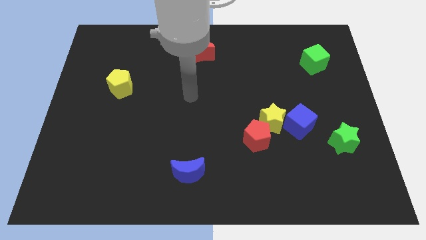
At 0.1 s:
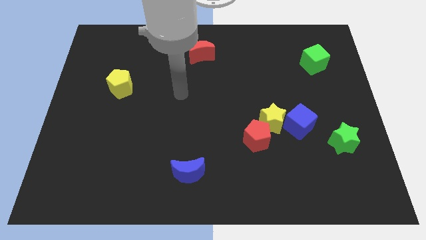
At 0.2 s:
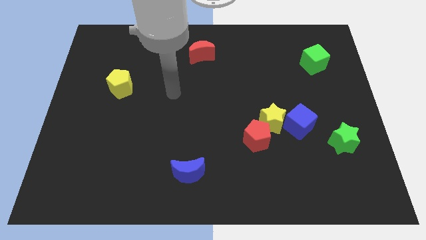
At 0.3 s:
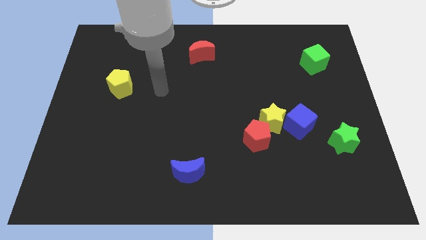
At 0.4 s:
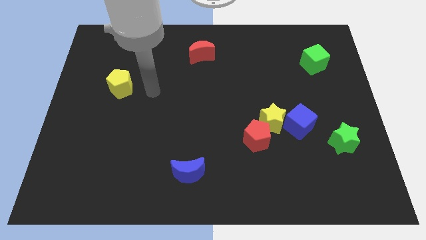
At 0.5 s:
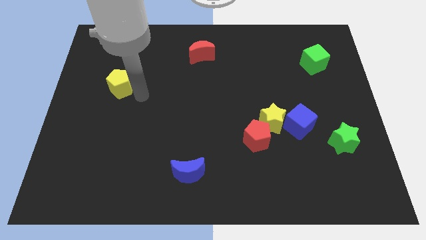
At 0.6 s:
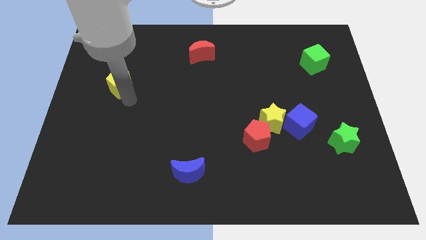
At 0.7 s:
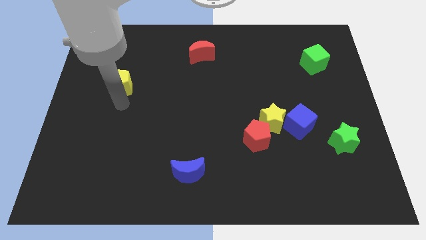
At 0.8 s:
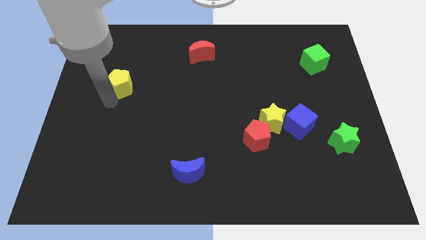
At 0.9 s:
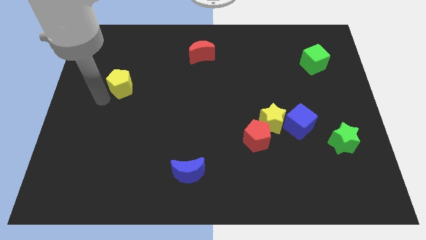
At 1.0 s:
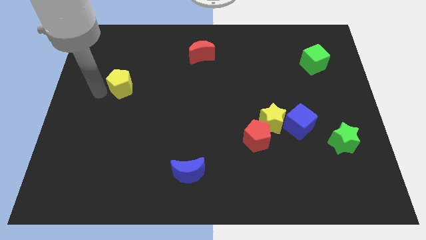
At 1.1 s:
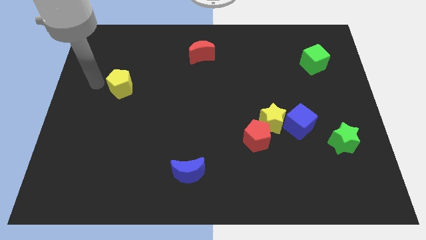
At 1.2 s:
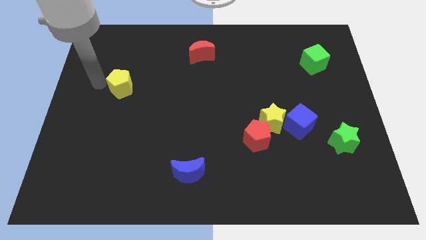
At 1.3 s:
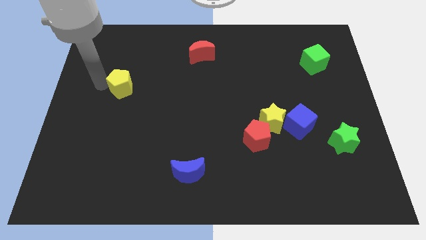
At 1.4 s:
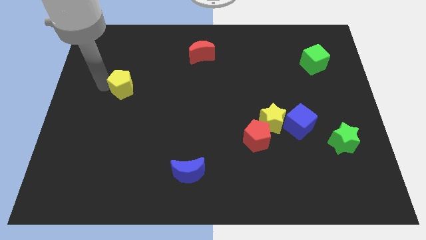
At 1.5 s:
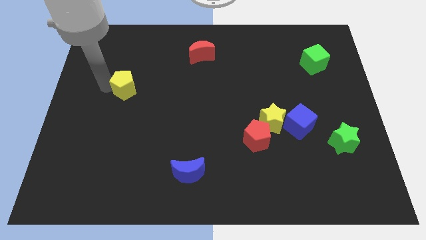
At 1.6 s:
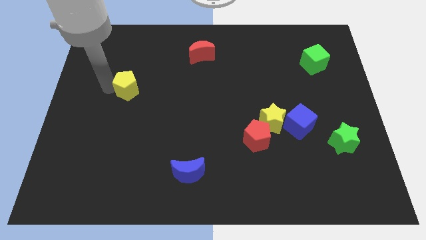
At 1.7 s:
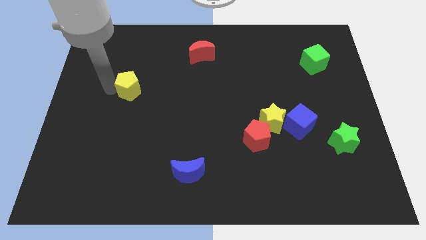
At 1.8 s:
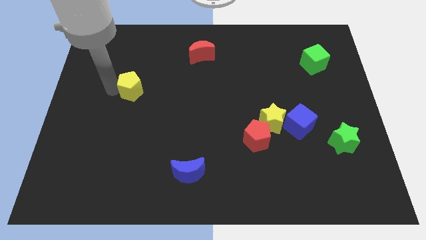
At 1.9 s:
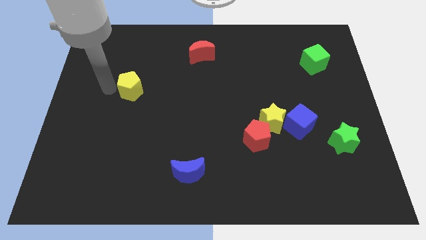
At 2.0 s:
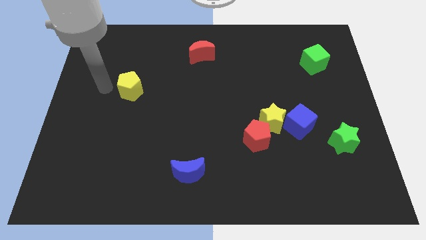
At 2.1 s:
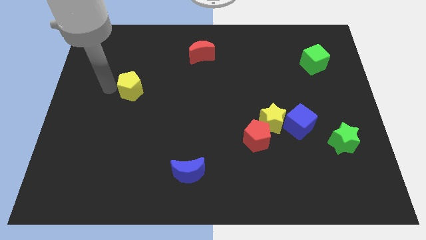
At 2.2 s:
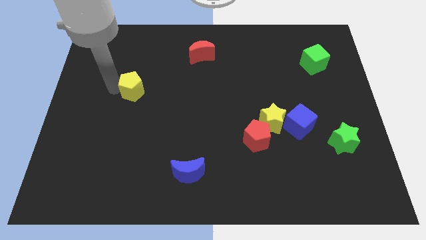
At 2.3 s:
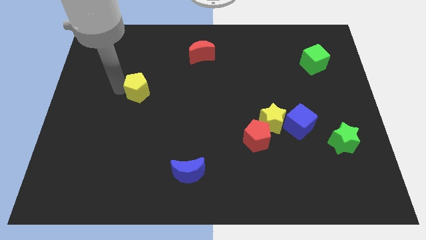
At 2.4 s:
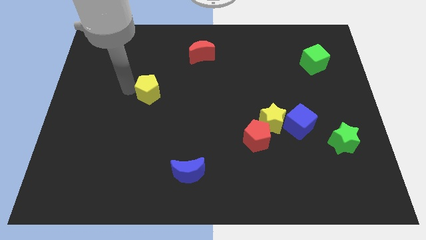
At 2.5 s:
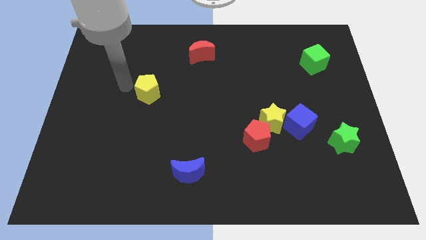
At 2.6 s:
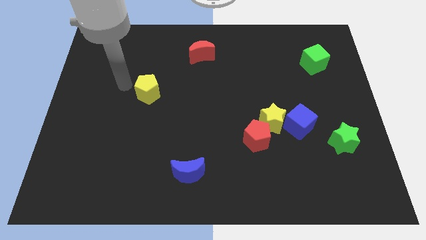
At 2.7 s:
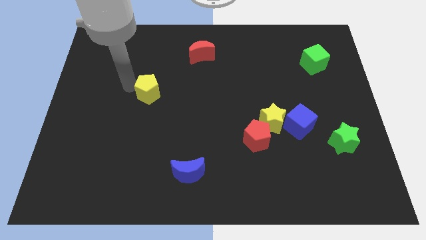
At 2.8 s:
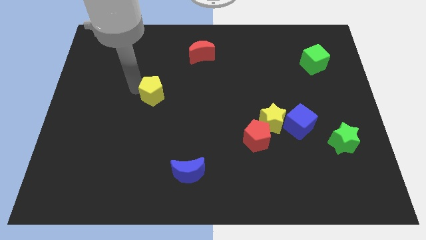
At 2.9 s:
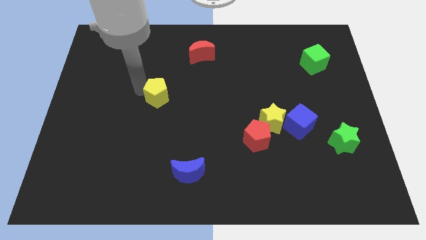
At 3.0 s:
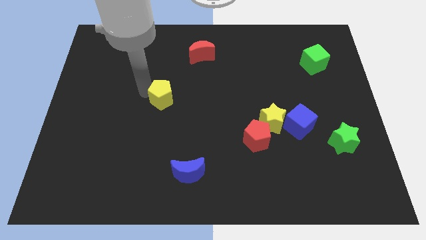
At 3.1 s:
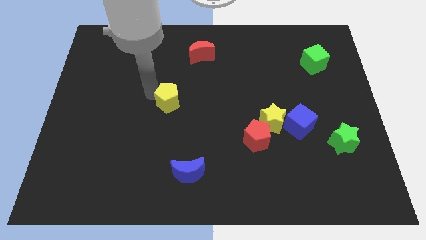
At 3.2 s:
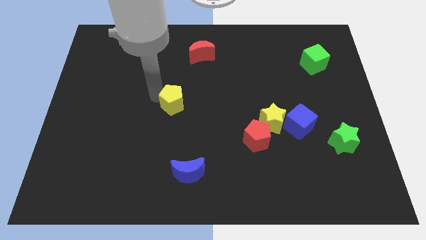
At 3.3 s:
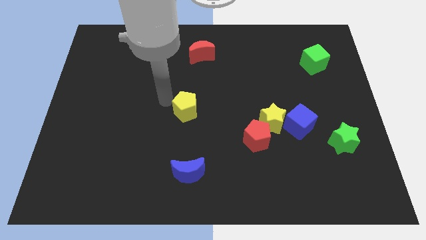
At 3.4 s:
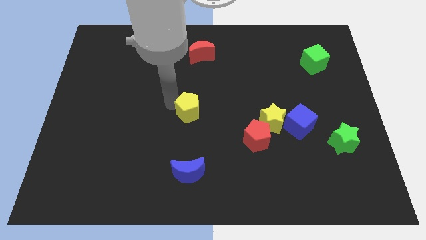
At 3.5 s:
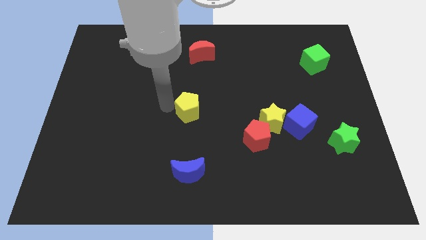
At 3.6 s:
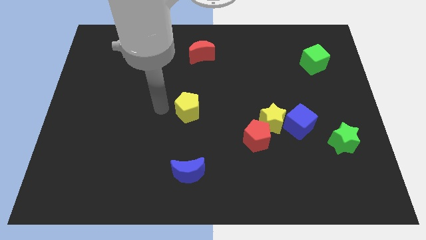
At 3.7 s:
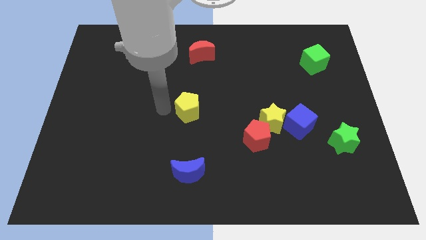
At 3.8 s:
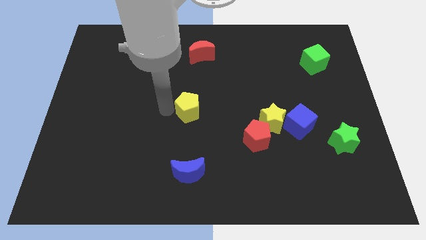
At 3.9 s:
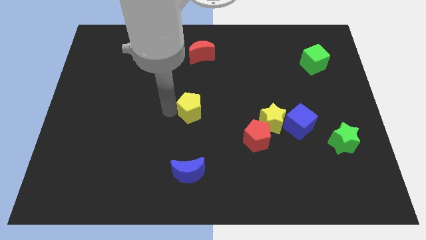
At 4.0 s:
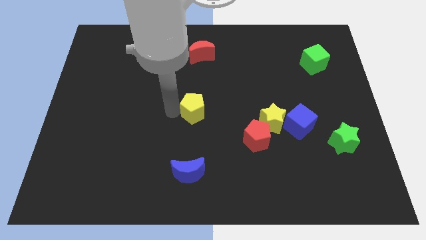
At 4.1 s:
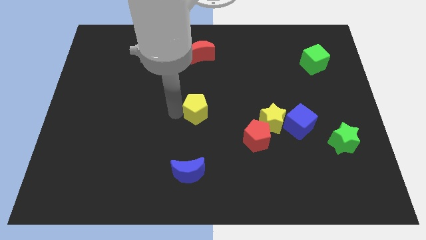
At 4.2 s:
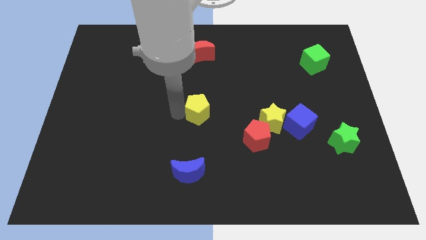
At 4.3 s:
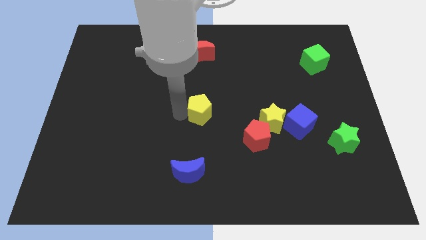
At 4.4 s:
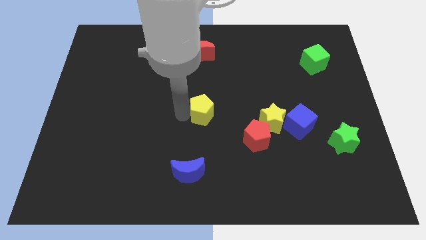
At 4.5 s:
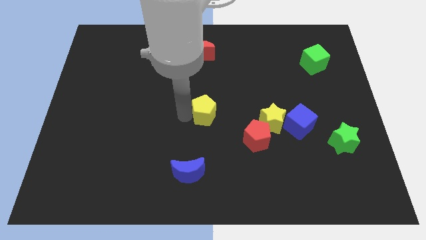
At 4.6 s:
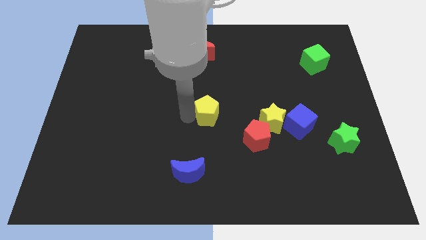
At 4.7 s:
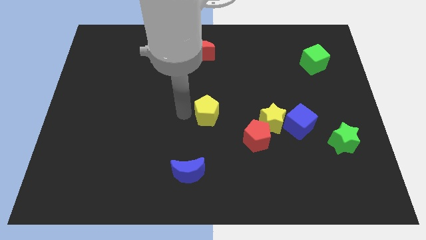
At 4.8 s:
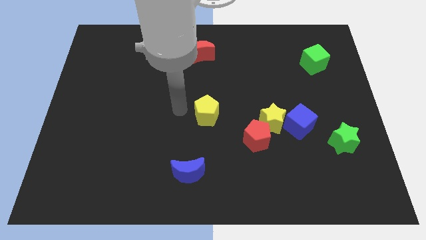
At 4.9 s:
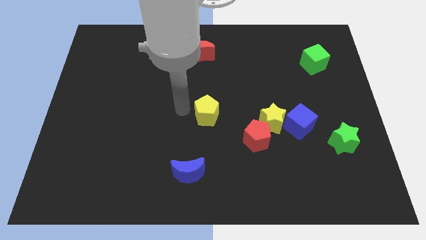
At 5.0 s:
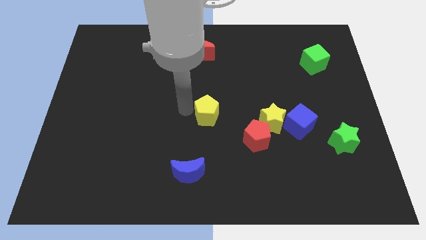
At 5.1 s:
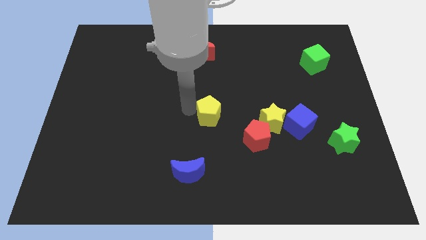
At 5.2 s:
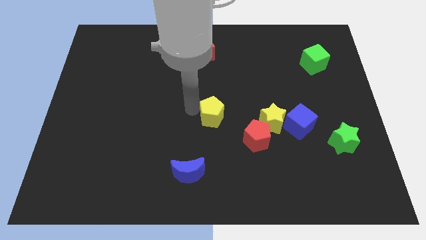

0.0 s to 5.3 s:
put the yellow pentagon to the top left of the red pentagon

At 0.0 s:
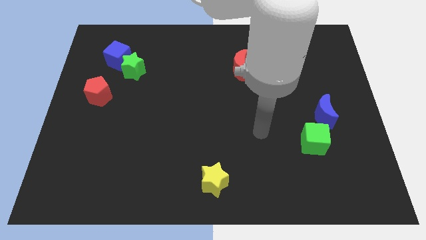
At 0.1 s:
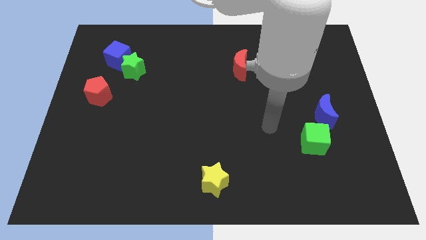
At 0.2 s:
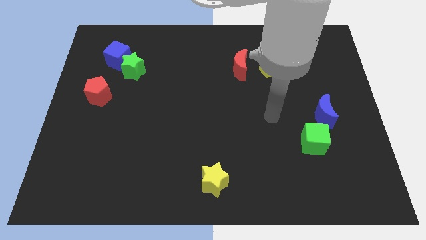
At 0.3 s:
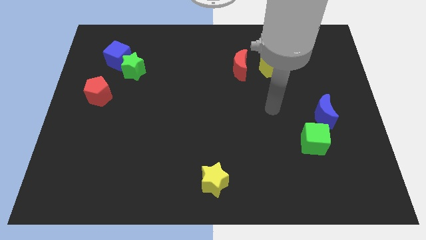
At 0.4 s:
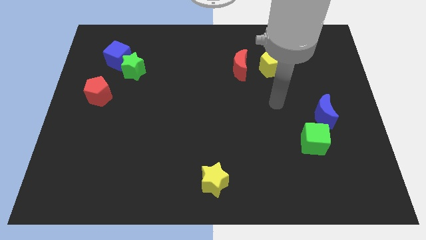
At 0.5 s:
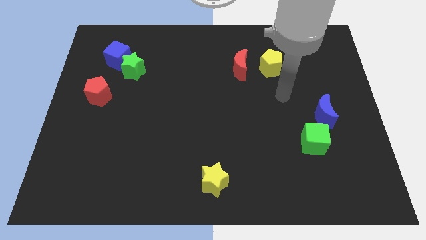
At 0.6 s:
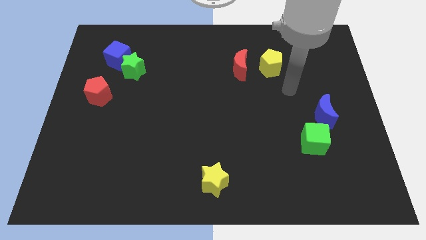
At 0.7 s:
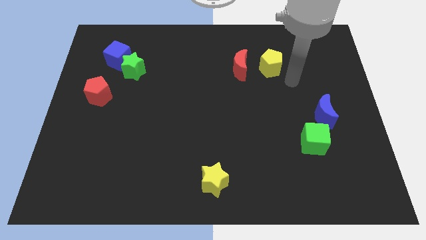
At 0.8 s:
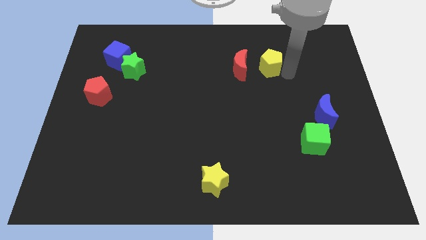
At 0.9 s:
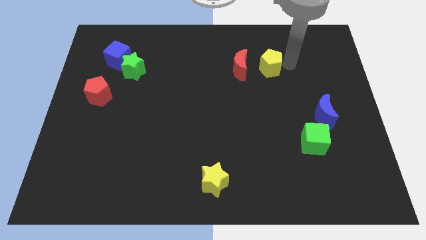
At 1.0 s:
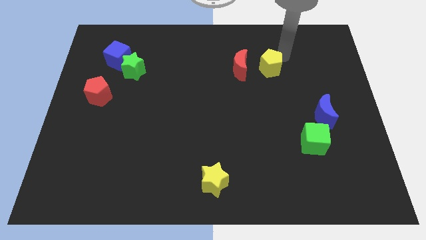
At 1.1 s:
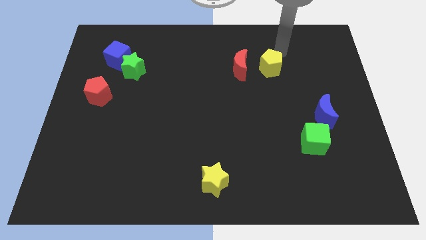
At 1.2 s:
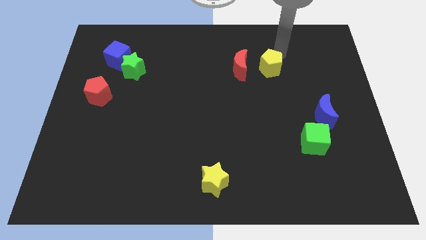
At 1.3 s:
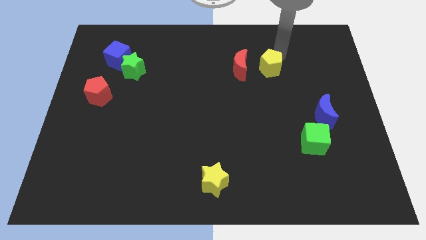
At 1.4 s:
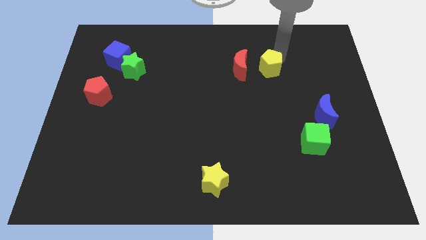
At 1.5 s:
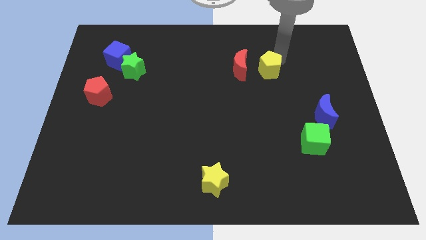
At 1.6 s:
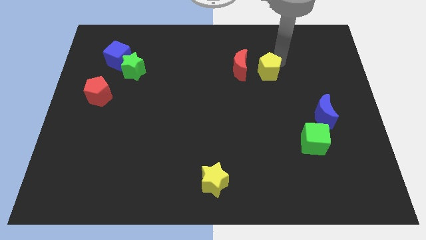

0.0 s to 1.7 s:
put the yellow pentagon to the bottom right side of the red moon

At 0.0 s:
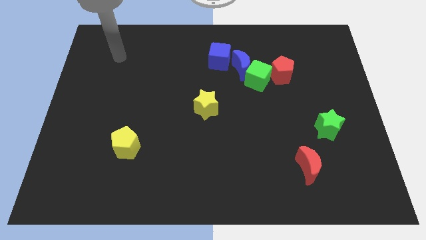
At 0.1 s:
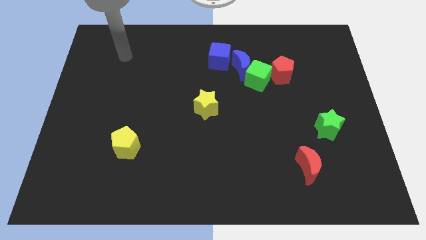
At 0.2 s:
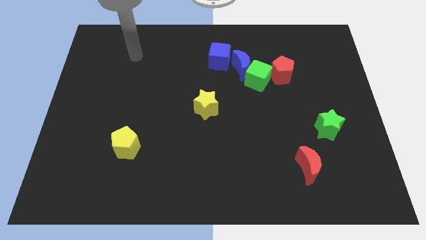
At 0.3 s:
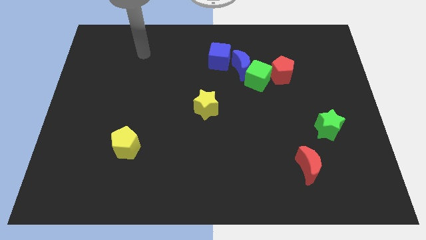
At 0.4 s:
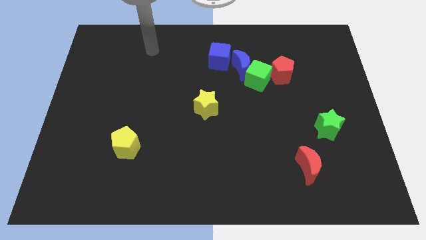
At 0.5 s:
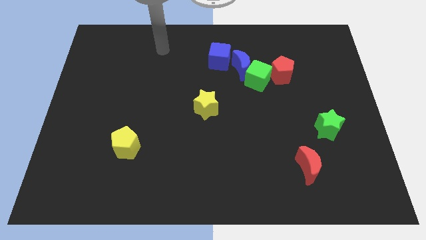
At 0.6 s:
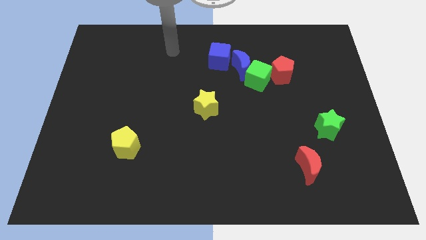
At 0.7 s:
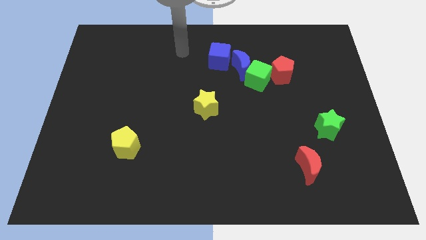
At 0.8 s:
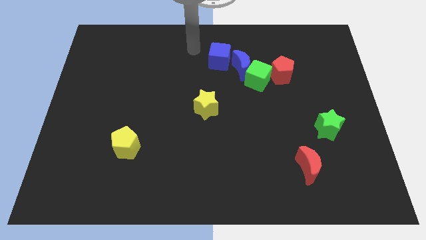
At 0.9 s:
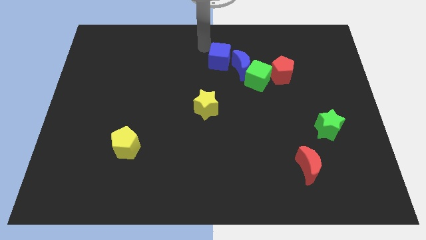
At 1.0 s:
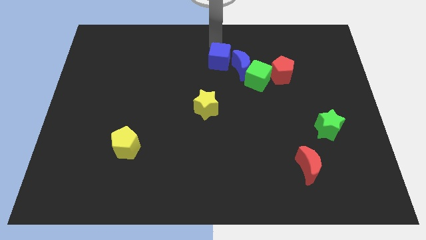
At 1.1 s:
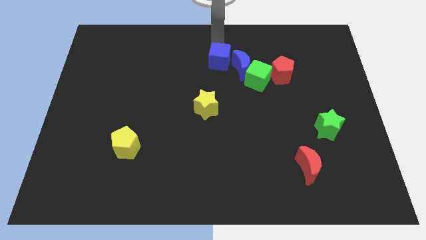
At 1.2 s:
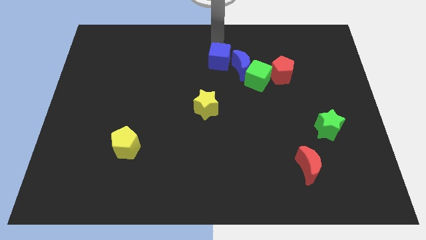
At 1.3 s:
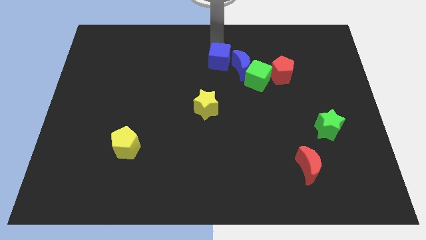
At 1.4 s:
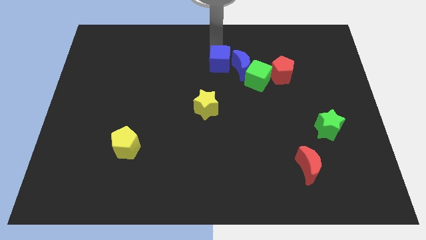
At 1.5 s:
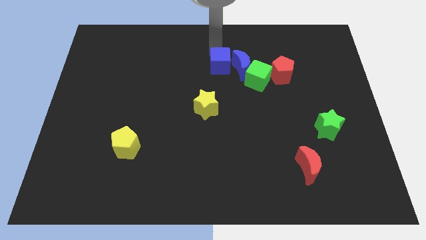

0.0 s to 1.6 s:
push the blue cube diagonally down and to the left of the blue moon
